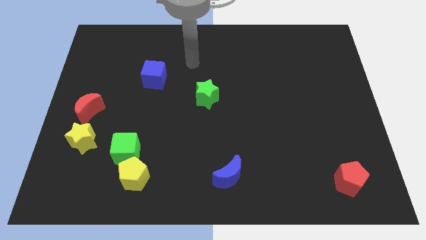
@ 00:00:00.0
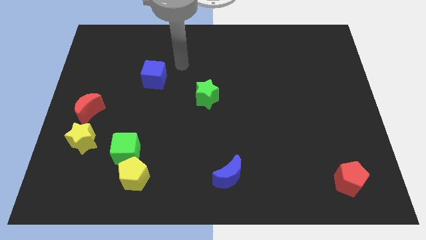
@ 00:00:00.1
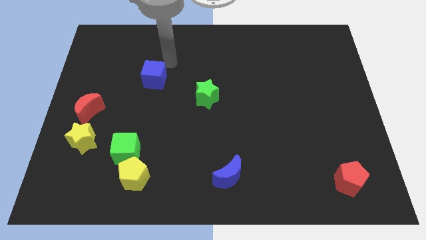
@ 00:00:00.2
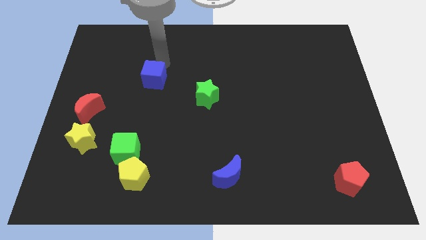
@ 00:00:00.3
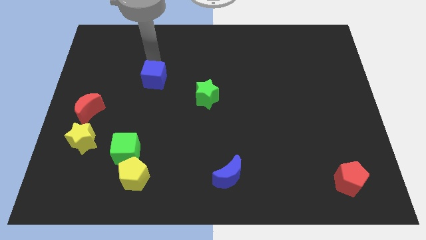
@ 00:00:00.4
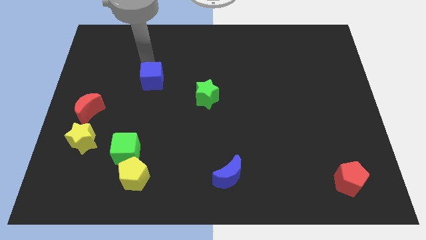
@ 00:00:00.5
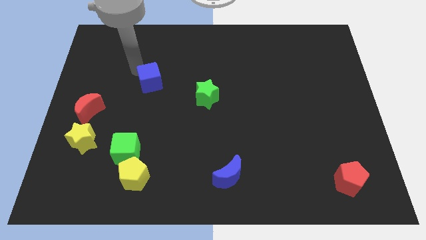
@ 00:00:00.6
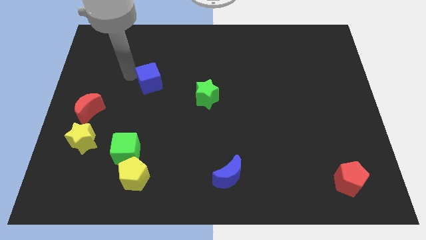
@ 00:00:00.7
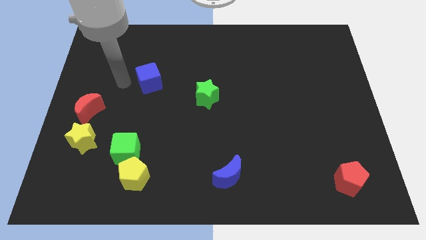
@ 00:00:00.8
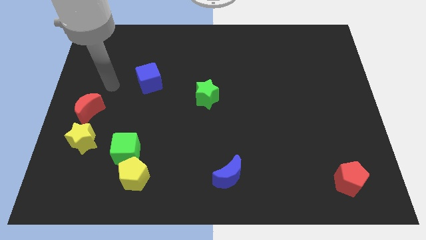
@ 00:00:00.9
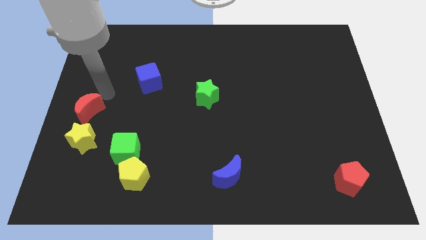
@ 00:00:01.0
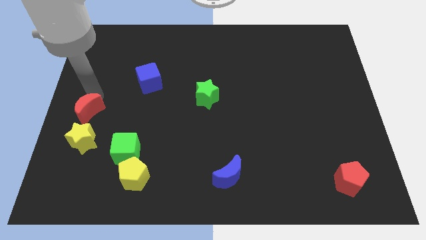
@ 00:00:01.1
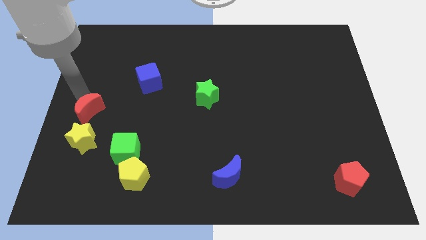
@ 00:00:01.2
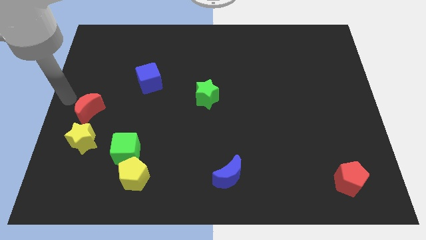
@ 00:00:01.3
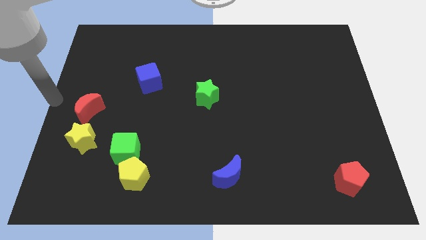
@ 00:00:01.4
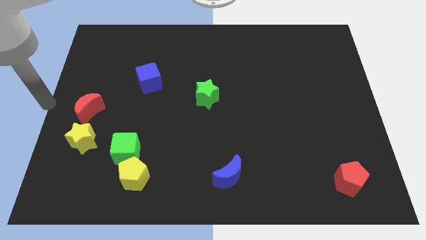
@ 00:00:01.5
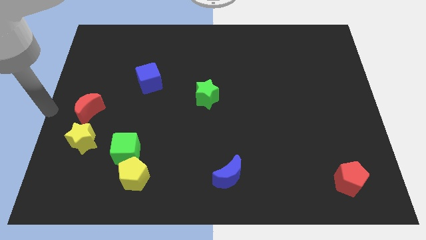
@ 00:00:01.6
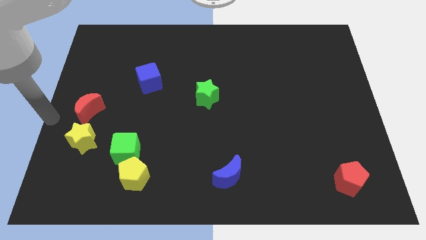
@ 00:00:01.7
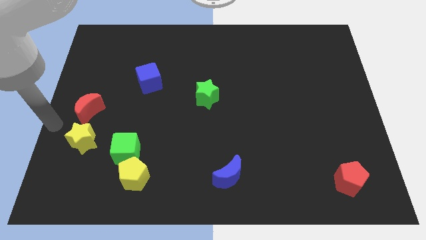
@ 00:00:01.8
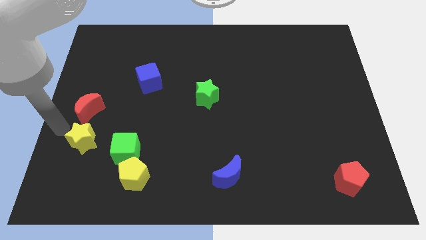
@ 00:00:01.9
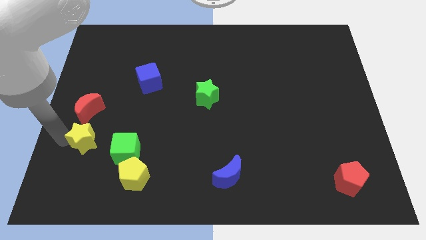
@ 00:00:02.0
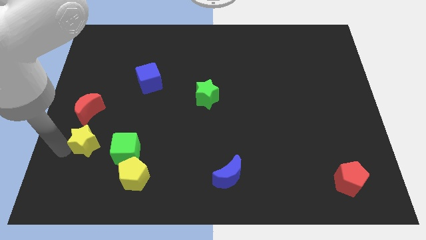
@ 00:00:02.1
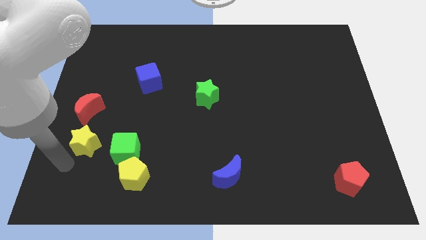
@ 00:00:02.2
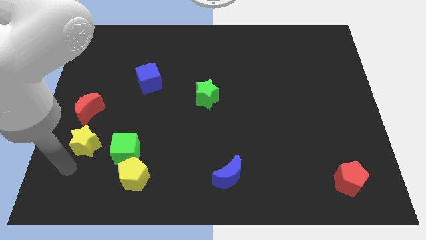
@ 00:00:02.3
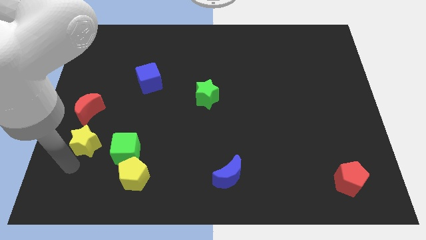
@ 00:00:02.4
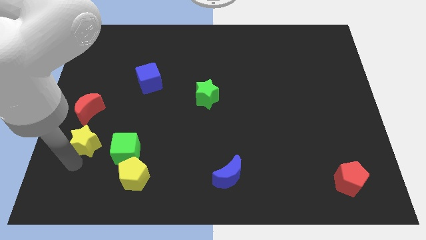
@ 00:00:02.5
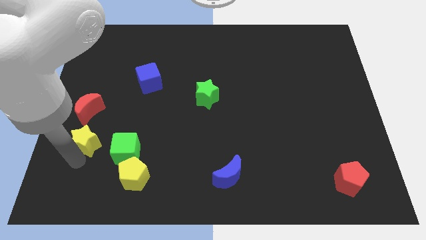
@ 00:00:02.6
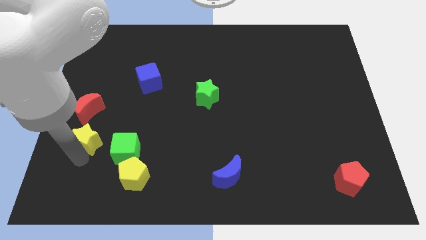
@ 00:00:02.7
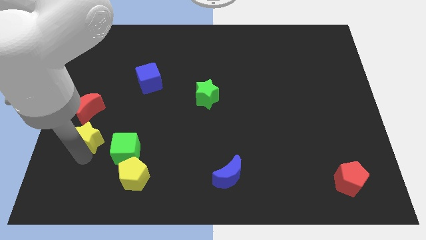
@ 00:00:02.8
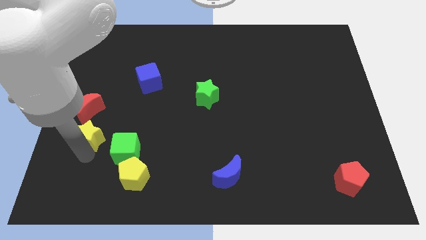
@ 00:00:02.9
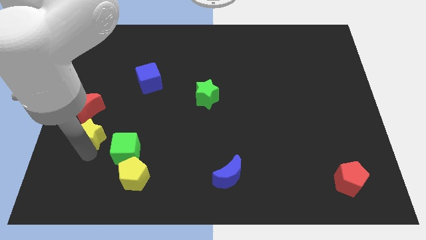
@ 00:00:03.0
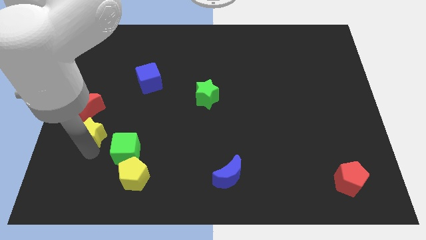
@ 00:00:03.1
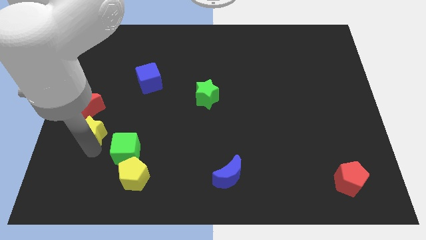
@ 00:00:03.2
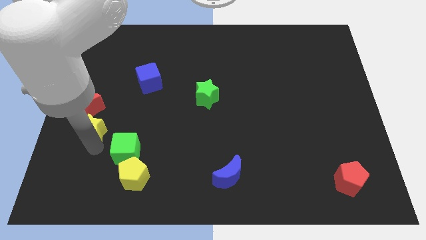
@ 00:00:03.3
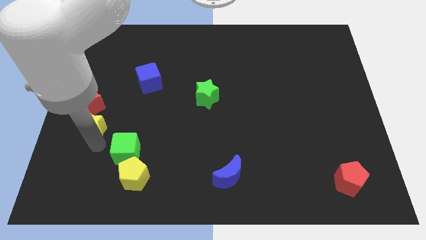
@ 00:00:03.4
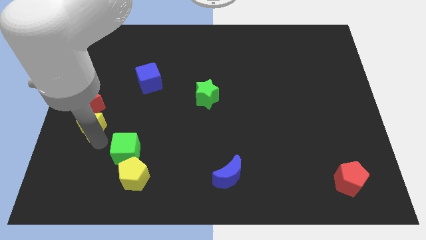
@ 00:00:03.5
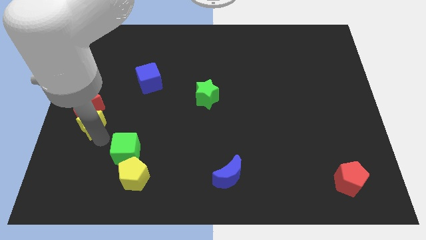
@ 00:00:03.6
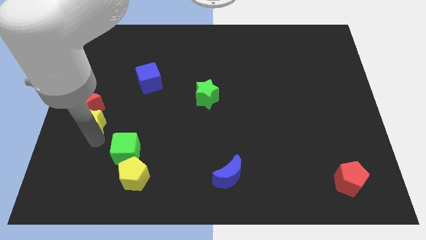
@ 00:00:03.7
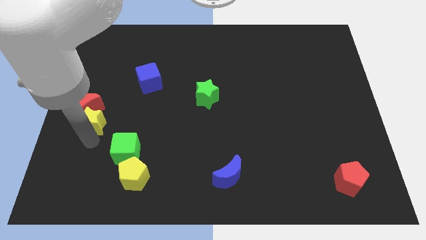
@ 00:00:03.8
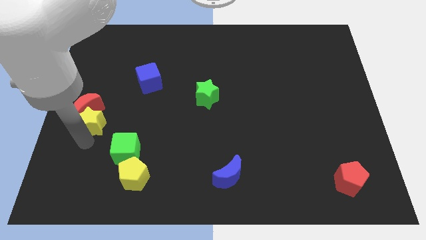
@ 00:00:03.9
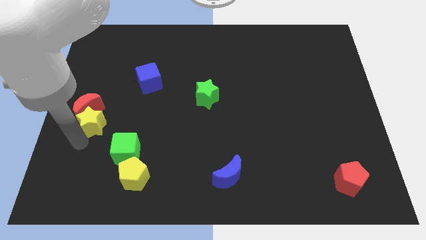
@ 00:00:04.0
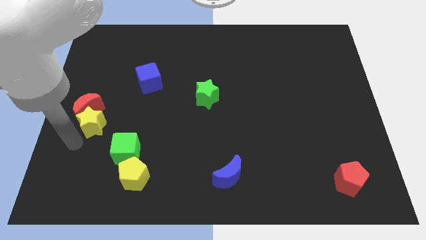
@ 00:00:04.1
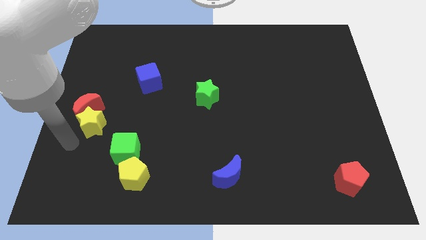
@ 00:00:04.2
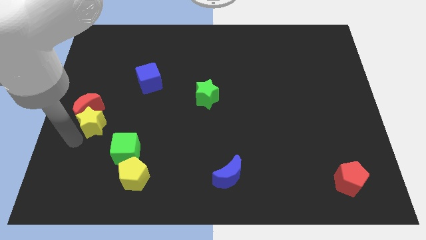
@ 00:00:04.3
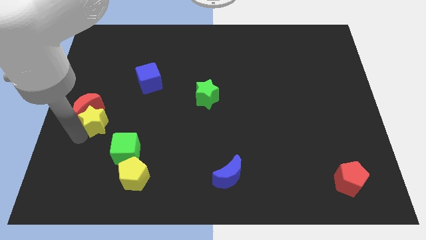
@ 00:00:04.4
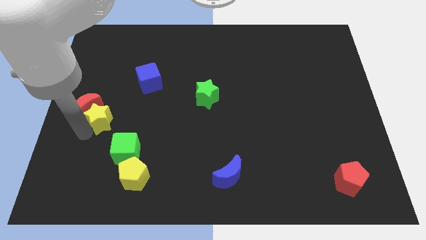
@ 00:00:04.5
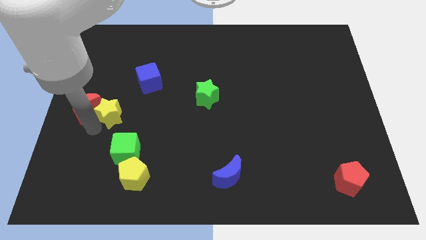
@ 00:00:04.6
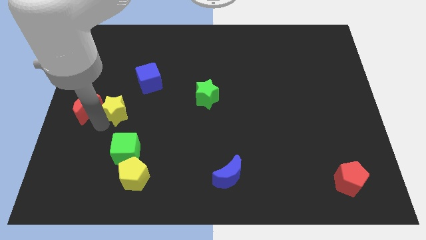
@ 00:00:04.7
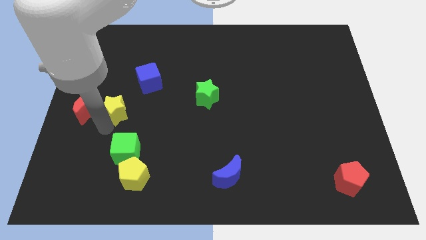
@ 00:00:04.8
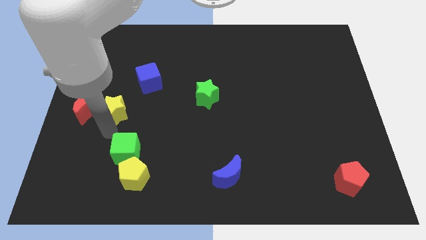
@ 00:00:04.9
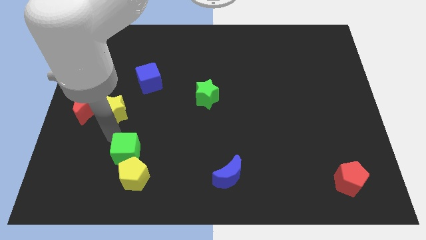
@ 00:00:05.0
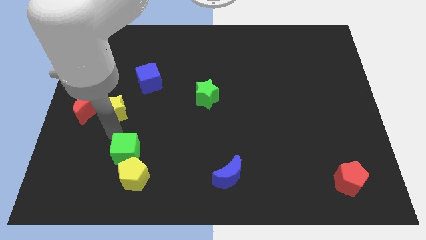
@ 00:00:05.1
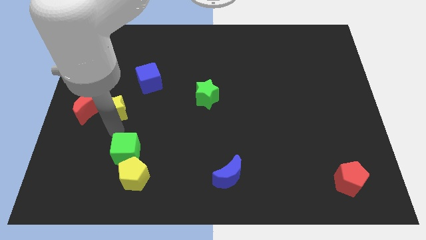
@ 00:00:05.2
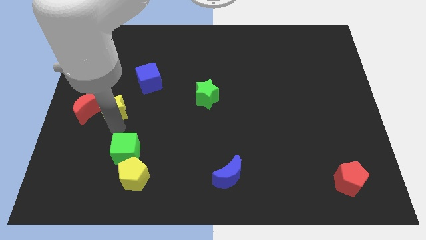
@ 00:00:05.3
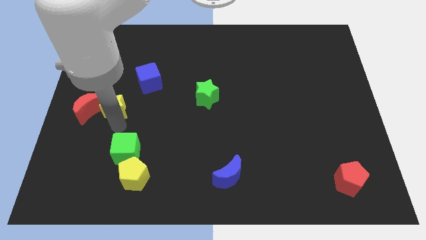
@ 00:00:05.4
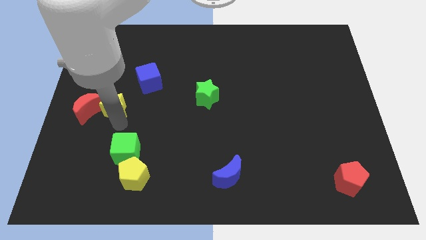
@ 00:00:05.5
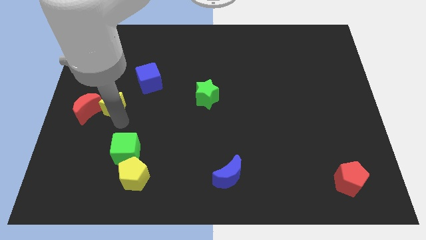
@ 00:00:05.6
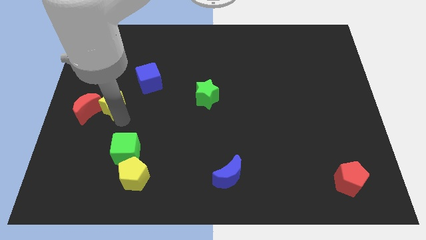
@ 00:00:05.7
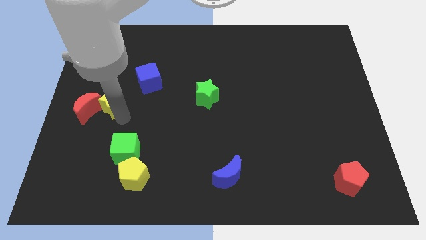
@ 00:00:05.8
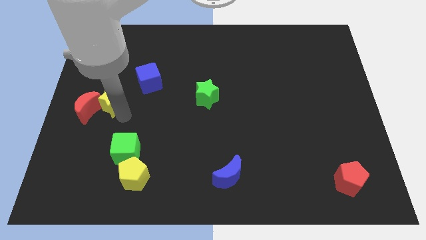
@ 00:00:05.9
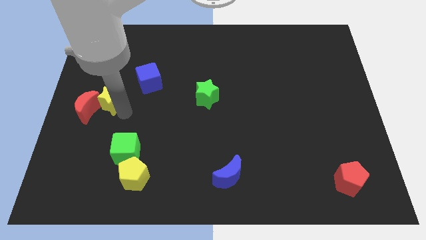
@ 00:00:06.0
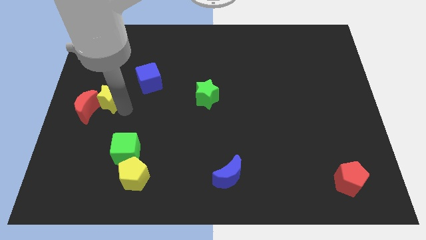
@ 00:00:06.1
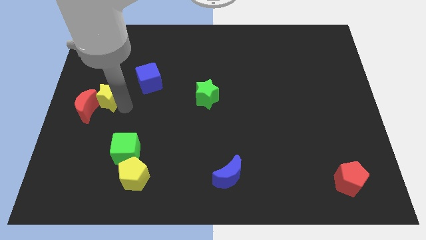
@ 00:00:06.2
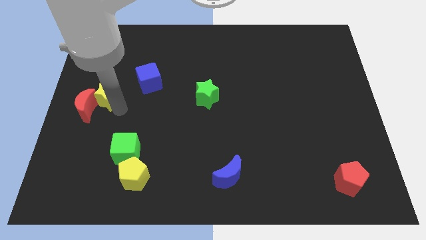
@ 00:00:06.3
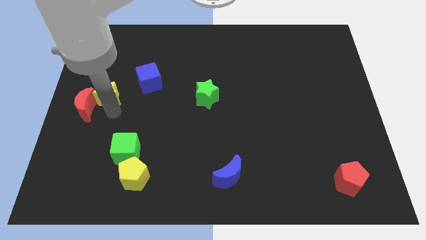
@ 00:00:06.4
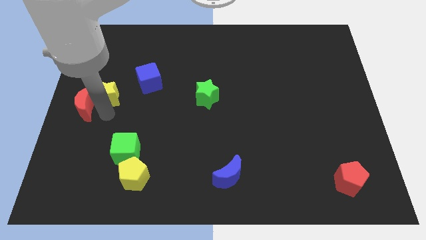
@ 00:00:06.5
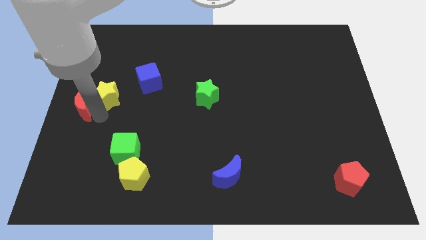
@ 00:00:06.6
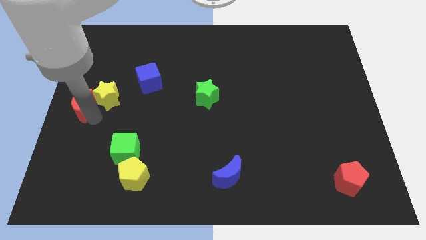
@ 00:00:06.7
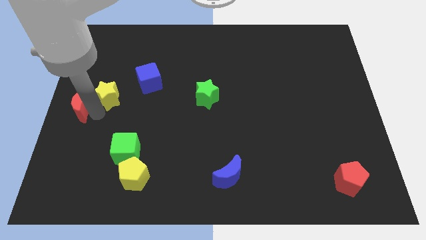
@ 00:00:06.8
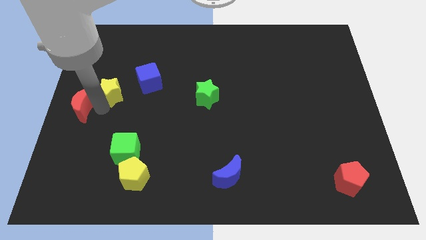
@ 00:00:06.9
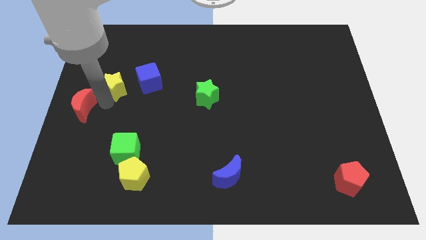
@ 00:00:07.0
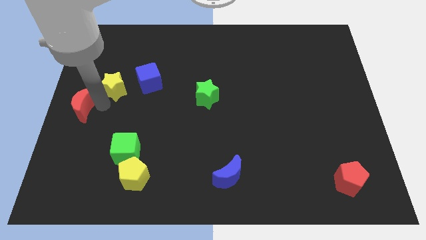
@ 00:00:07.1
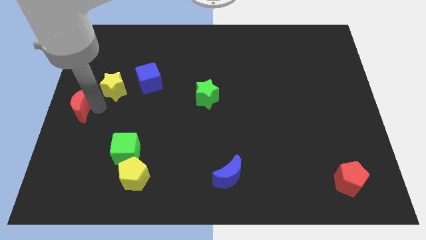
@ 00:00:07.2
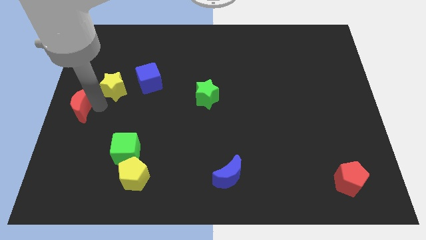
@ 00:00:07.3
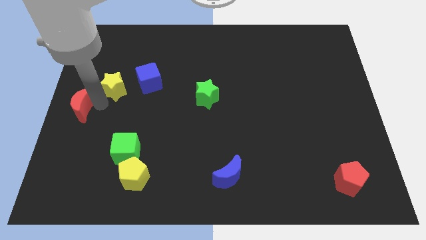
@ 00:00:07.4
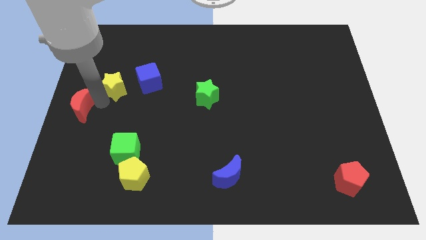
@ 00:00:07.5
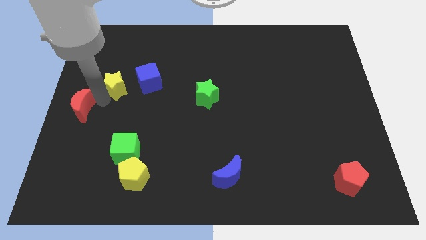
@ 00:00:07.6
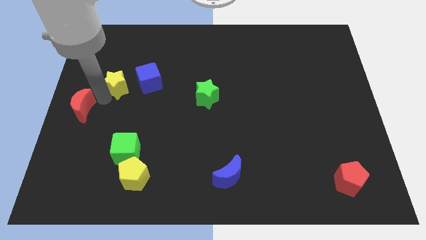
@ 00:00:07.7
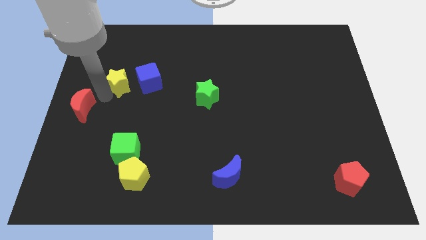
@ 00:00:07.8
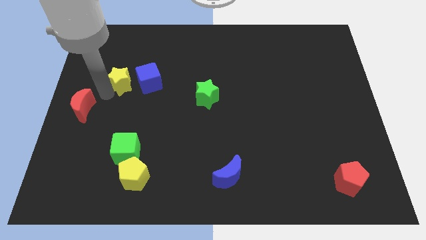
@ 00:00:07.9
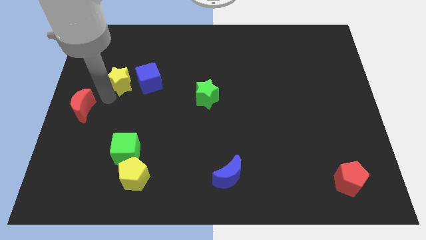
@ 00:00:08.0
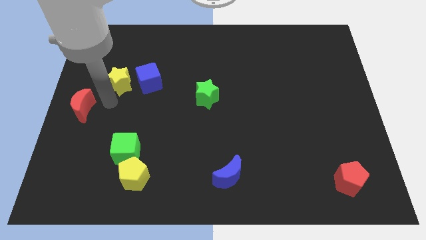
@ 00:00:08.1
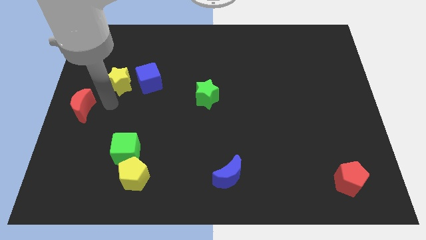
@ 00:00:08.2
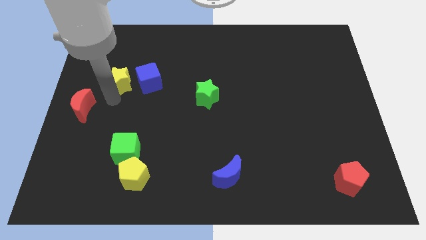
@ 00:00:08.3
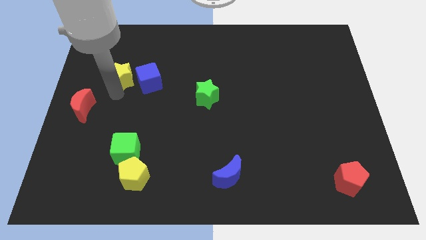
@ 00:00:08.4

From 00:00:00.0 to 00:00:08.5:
move the yellow star diagonally up and to the left of the blue cube
